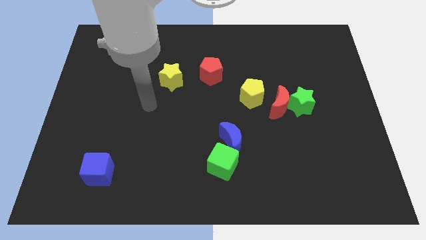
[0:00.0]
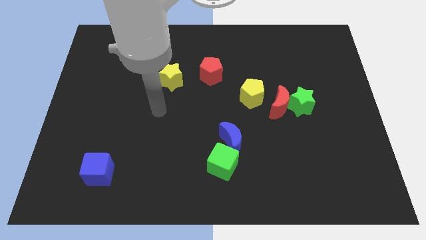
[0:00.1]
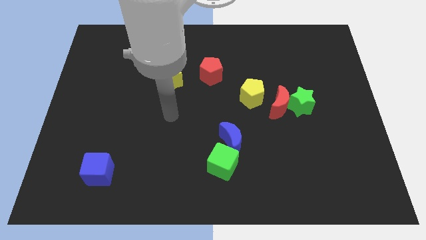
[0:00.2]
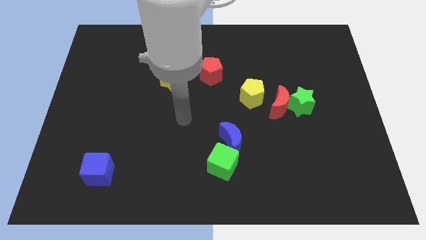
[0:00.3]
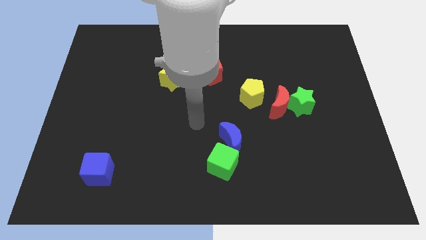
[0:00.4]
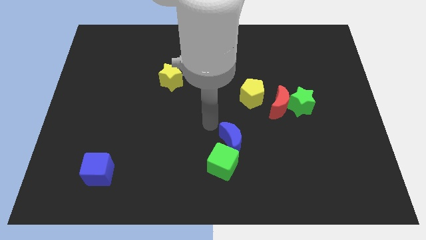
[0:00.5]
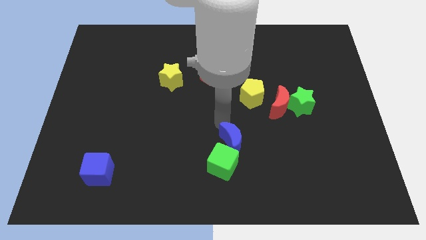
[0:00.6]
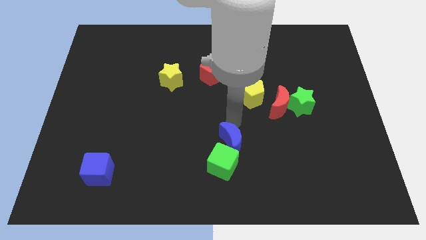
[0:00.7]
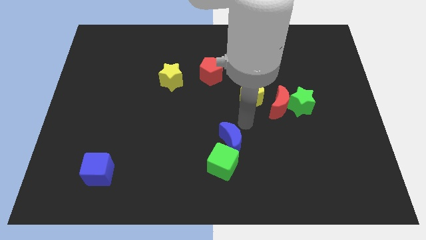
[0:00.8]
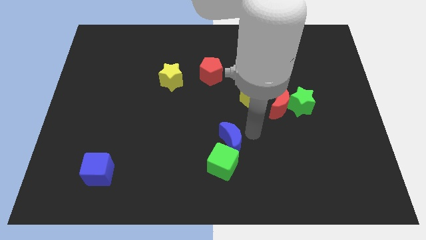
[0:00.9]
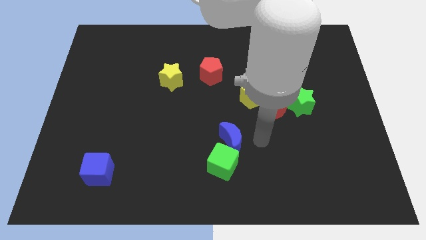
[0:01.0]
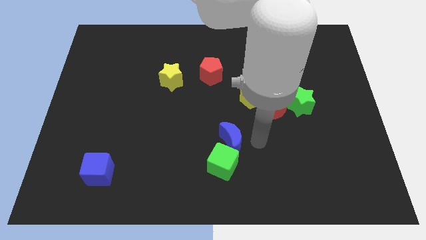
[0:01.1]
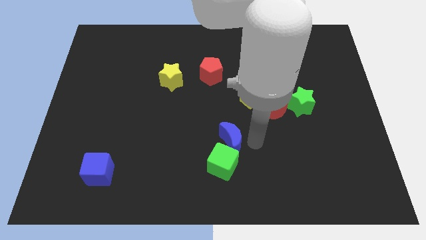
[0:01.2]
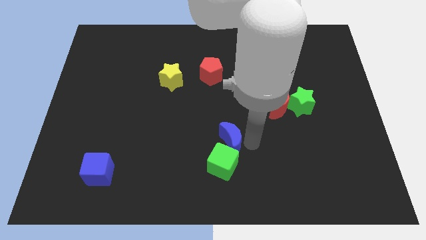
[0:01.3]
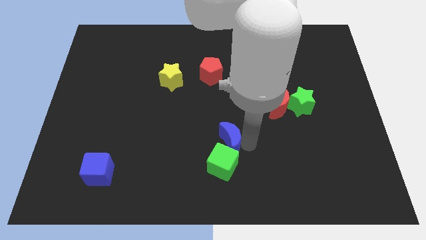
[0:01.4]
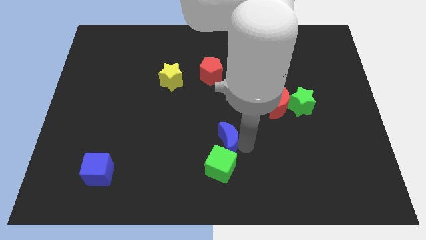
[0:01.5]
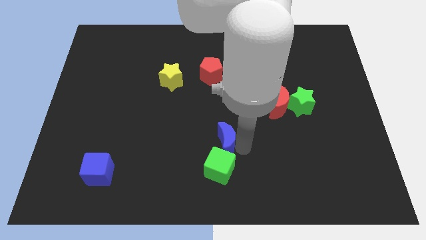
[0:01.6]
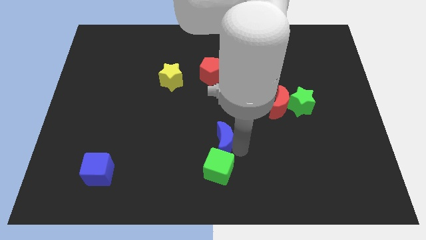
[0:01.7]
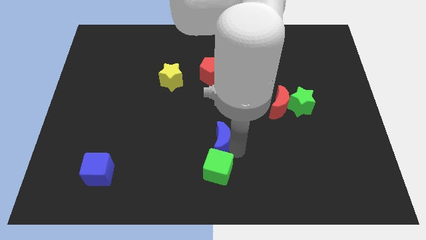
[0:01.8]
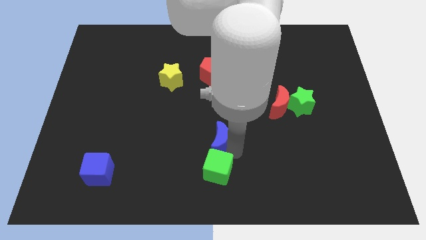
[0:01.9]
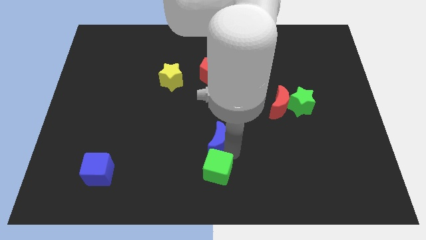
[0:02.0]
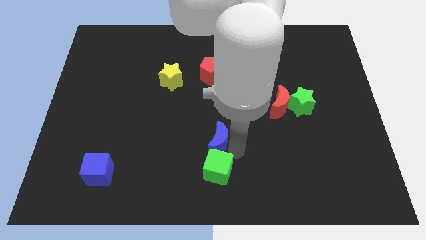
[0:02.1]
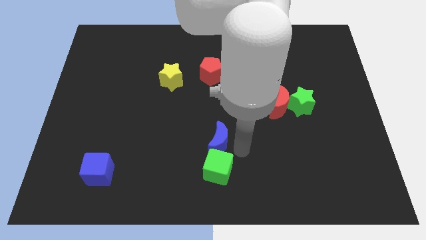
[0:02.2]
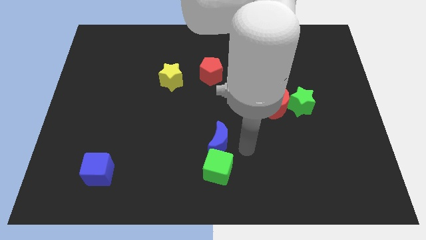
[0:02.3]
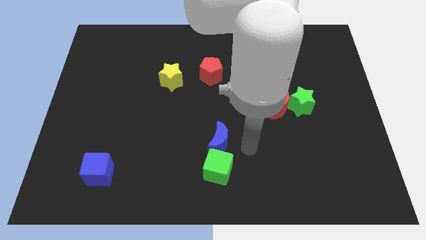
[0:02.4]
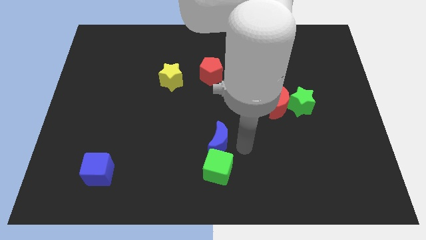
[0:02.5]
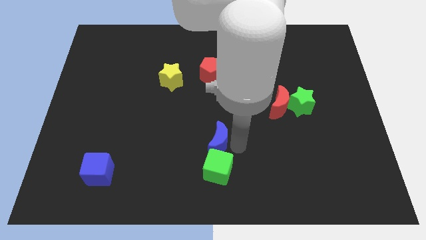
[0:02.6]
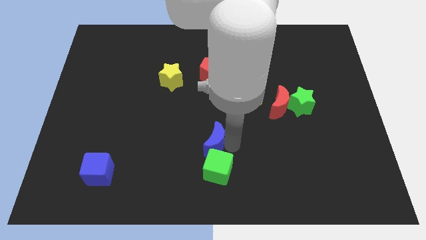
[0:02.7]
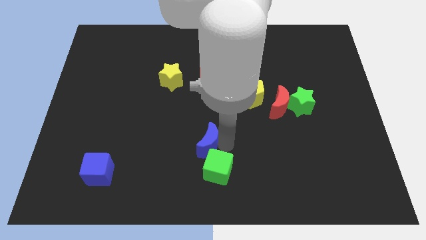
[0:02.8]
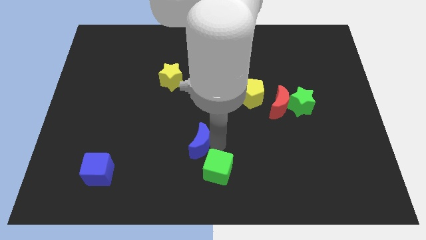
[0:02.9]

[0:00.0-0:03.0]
push the blue moon a little bit to the left

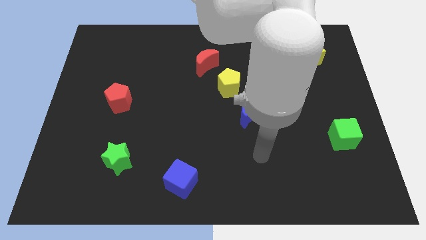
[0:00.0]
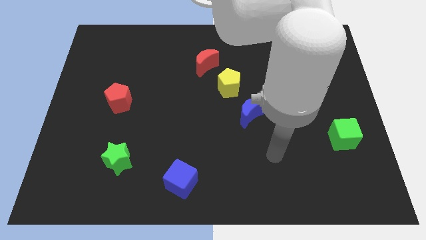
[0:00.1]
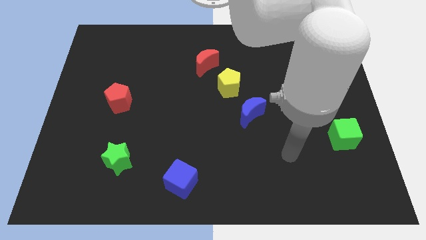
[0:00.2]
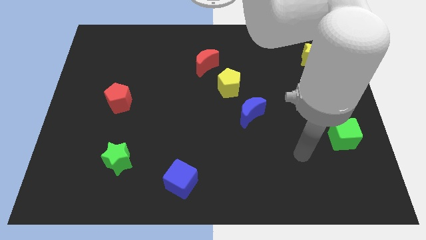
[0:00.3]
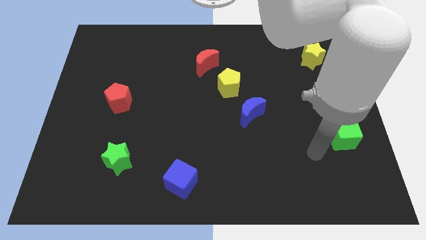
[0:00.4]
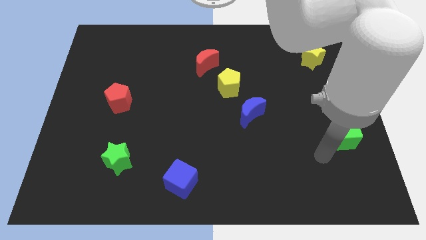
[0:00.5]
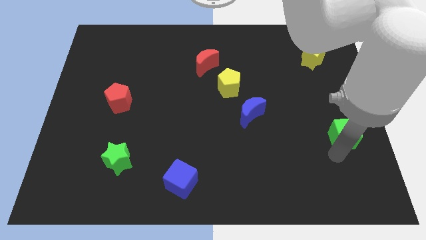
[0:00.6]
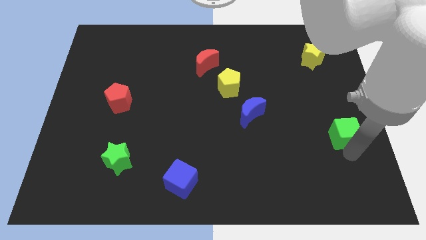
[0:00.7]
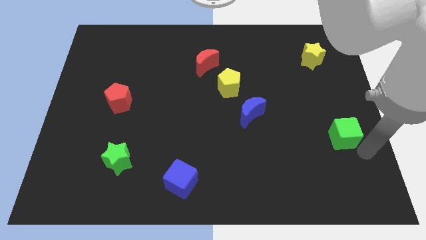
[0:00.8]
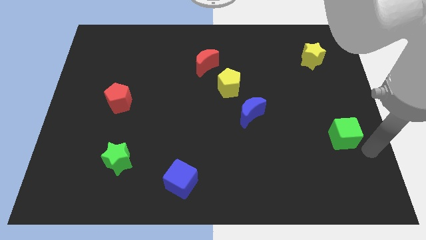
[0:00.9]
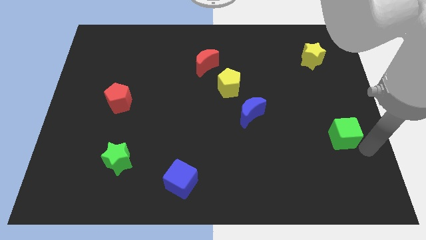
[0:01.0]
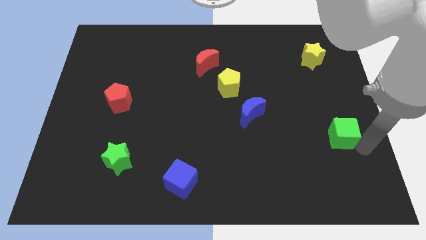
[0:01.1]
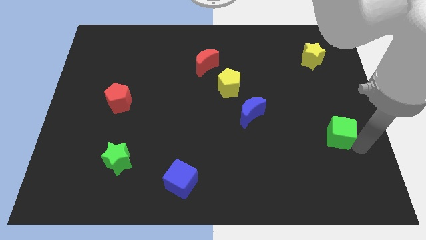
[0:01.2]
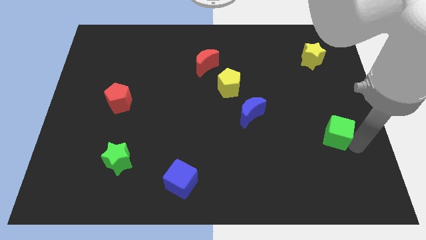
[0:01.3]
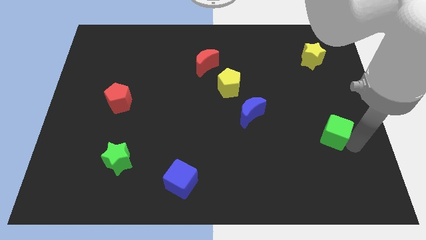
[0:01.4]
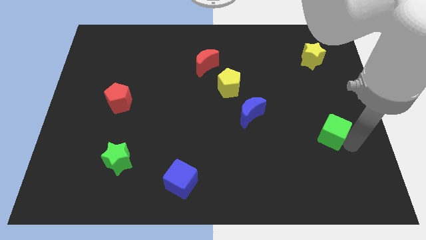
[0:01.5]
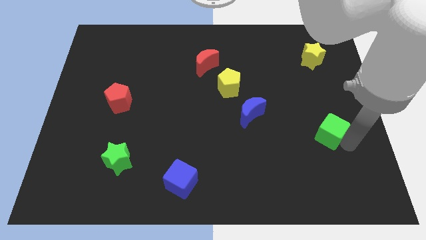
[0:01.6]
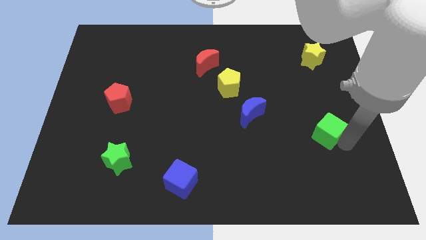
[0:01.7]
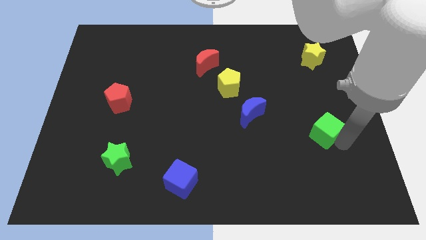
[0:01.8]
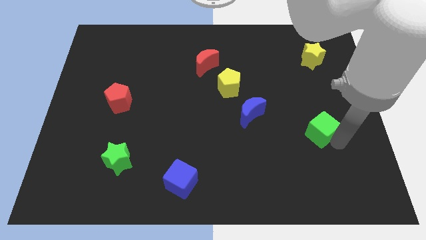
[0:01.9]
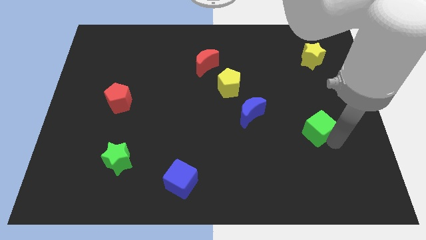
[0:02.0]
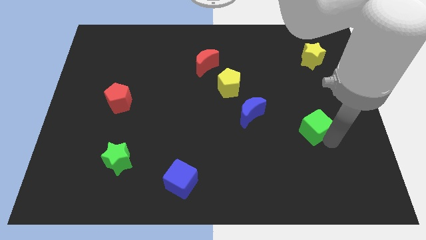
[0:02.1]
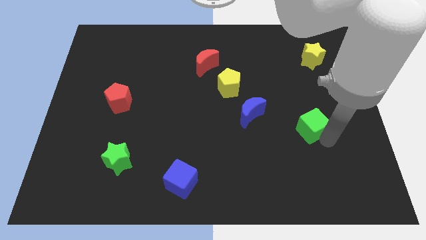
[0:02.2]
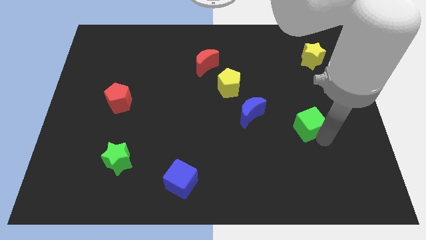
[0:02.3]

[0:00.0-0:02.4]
slightly slide the green cube diagonally upwards and left

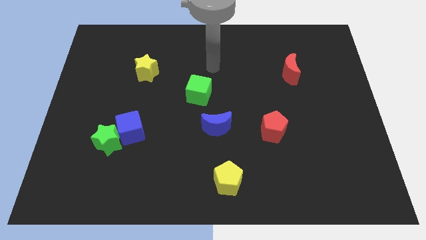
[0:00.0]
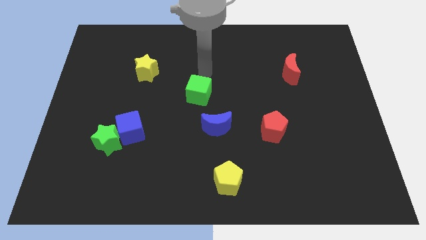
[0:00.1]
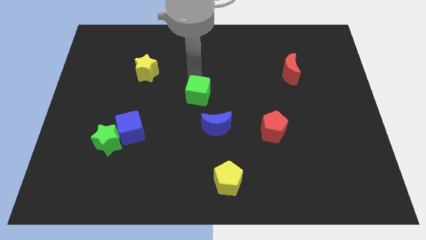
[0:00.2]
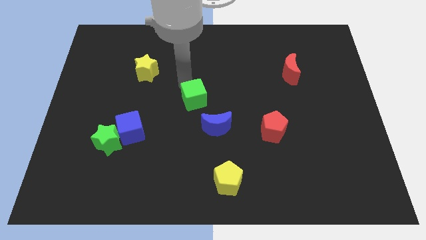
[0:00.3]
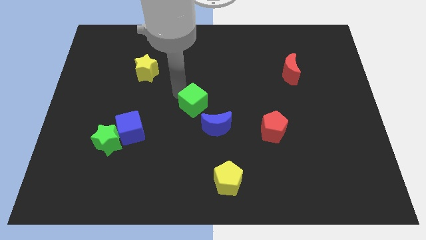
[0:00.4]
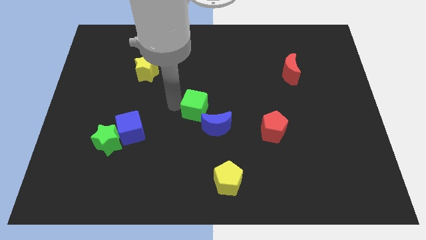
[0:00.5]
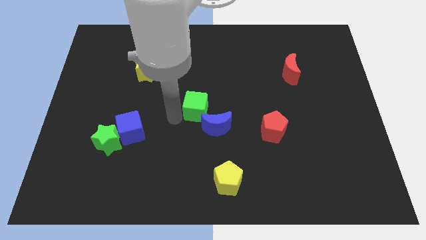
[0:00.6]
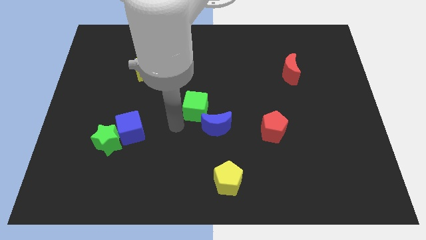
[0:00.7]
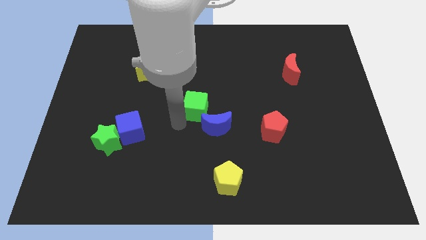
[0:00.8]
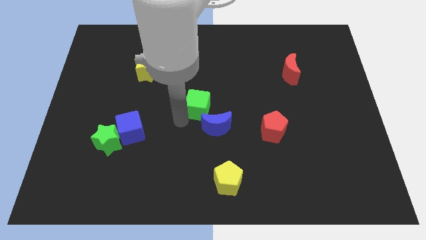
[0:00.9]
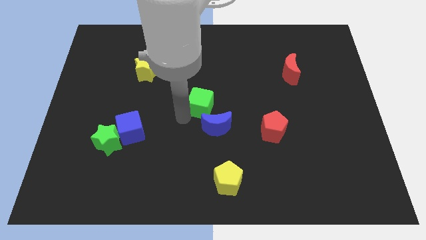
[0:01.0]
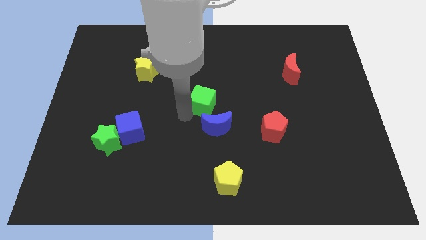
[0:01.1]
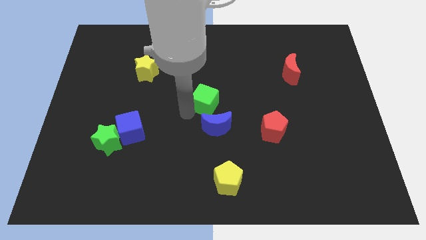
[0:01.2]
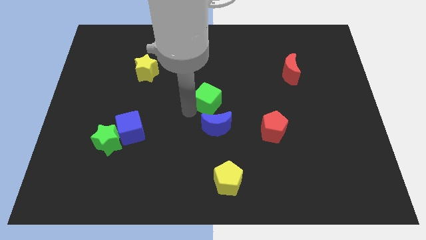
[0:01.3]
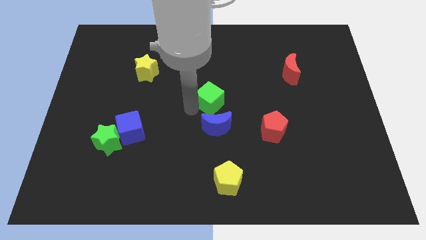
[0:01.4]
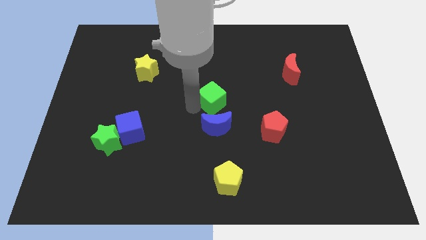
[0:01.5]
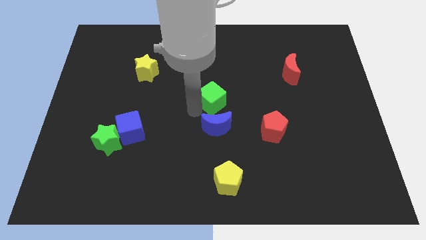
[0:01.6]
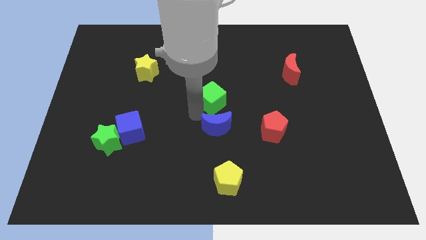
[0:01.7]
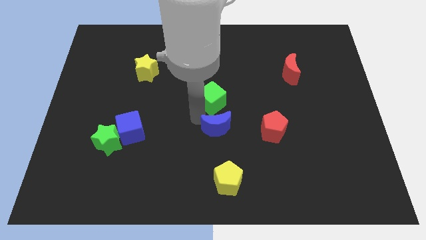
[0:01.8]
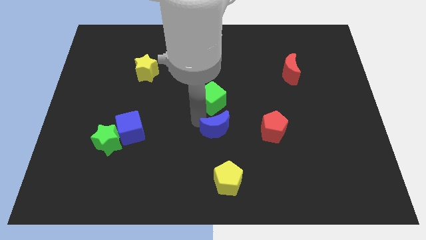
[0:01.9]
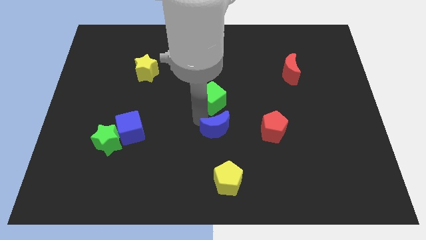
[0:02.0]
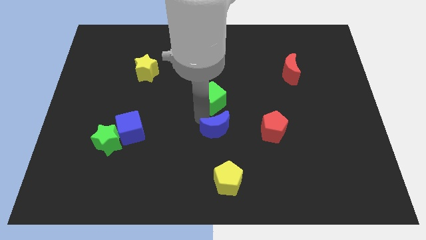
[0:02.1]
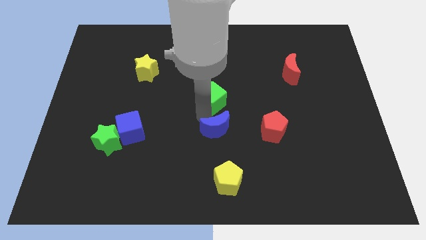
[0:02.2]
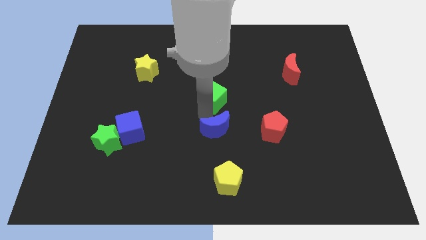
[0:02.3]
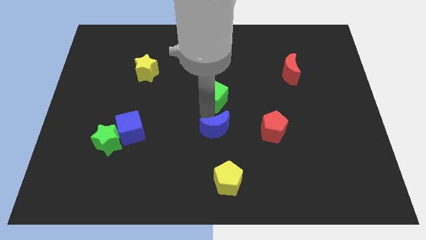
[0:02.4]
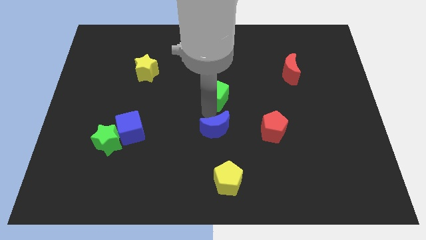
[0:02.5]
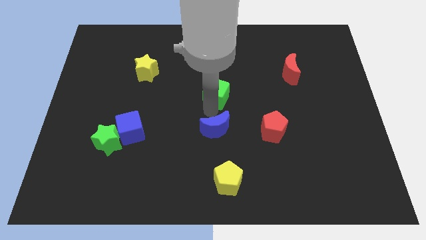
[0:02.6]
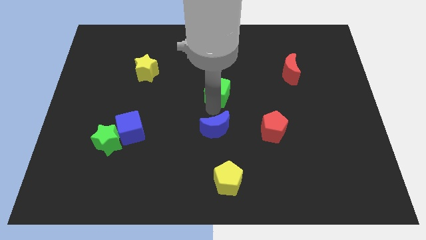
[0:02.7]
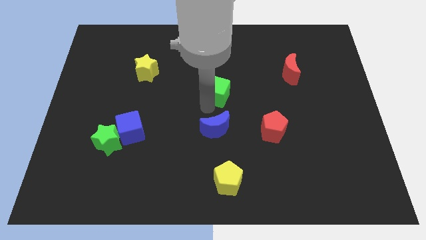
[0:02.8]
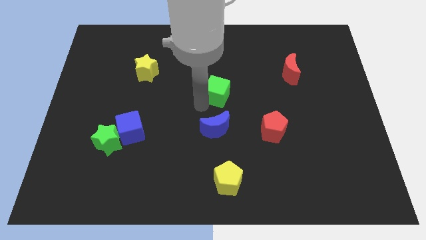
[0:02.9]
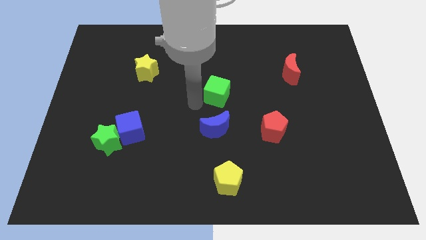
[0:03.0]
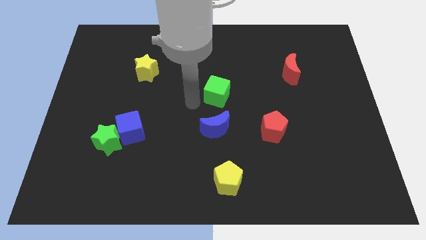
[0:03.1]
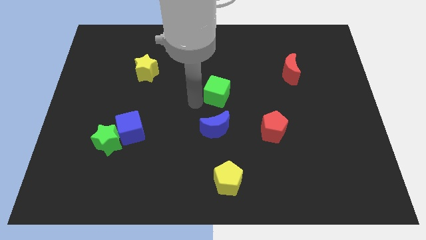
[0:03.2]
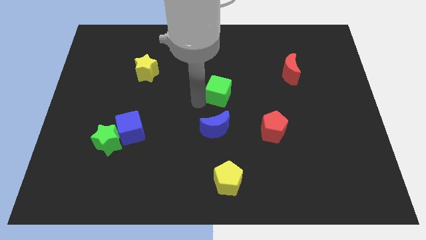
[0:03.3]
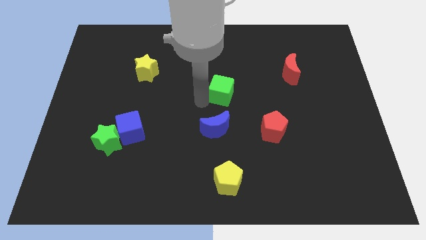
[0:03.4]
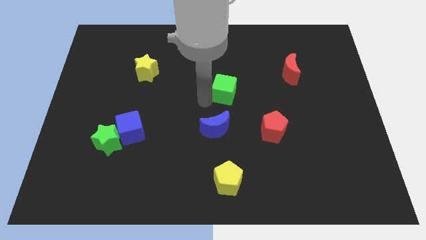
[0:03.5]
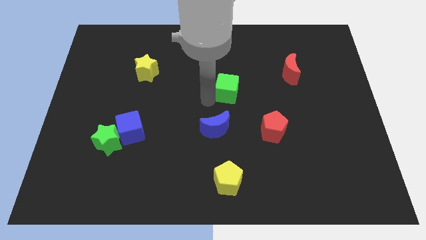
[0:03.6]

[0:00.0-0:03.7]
move the green cube right slightly
